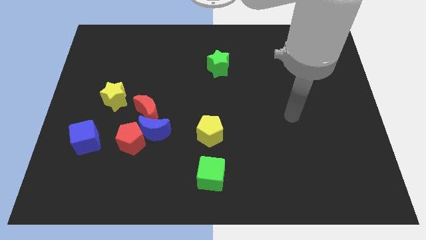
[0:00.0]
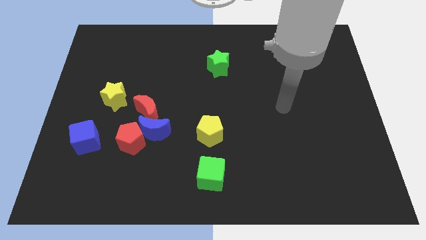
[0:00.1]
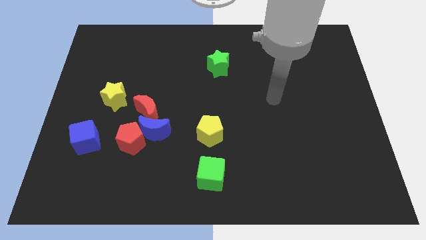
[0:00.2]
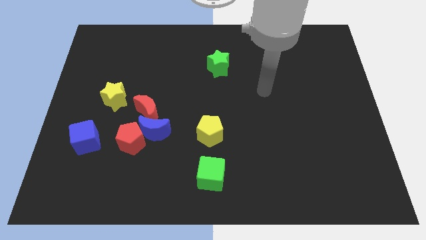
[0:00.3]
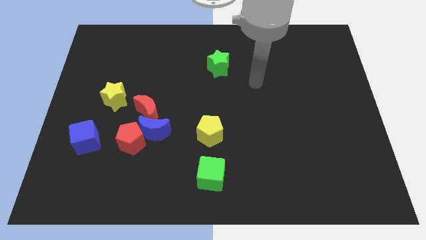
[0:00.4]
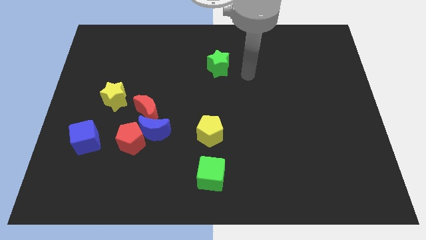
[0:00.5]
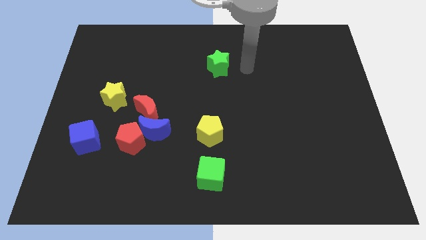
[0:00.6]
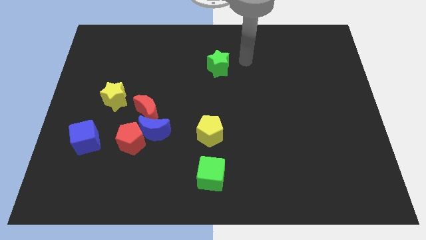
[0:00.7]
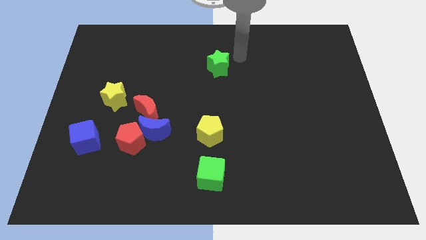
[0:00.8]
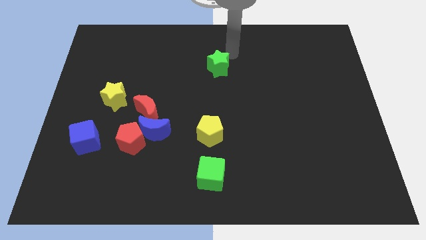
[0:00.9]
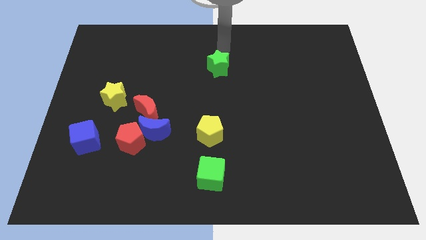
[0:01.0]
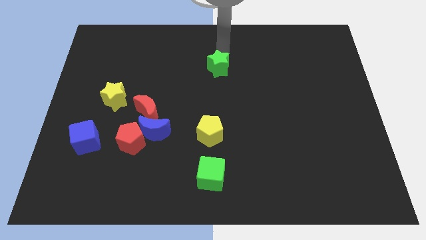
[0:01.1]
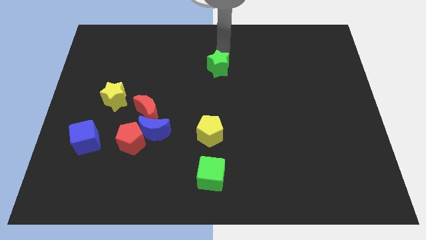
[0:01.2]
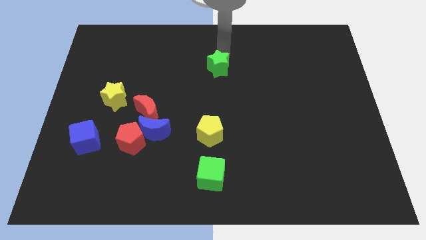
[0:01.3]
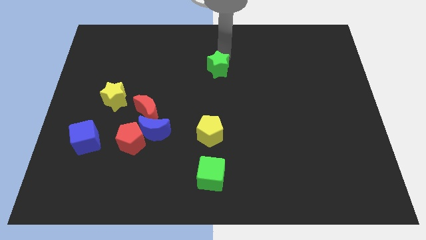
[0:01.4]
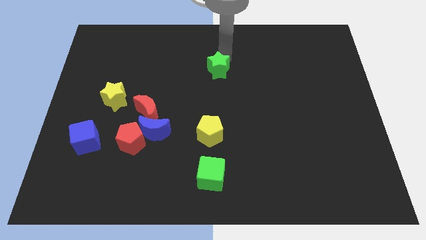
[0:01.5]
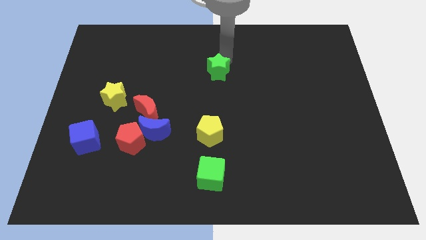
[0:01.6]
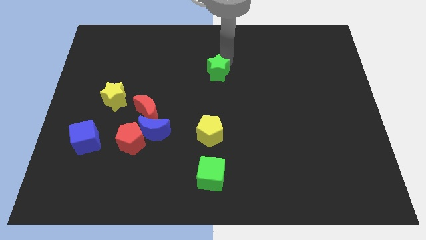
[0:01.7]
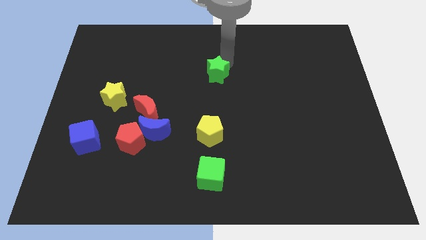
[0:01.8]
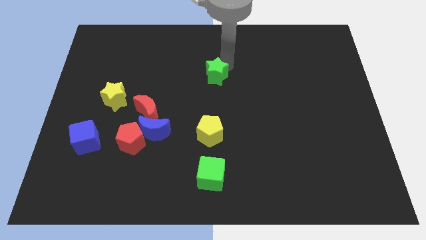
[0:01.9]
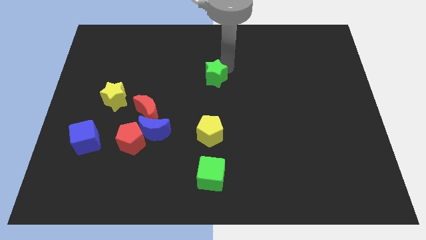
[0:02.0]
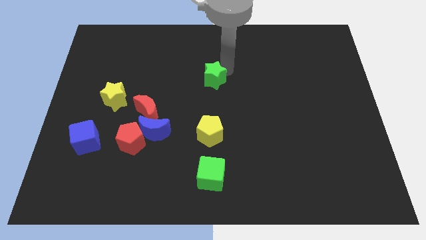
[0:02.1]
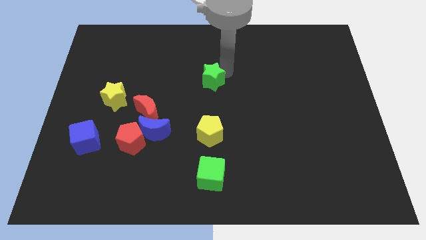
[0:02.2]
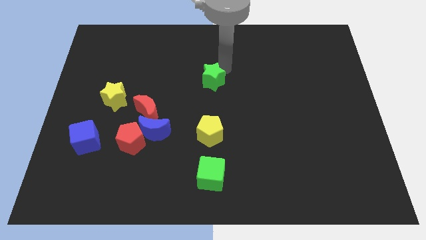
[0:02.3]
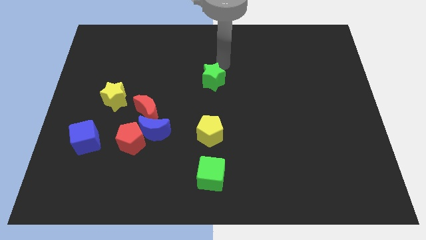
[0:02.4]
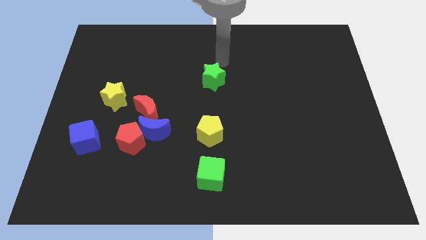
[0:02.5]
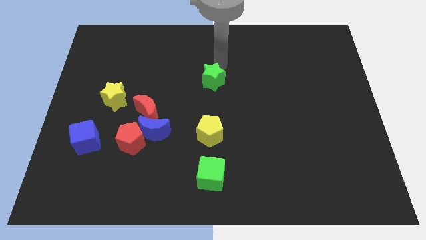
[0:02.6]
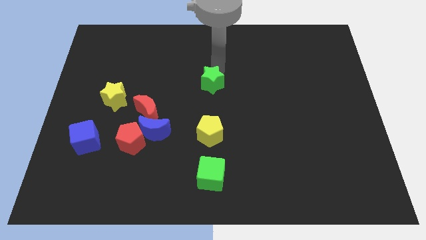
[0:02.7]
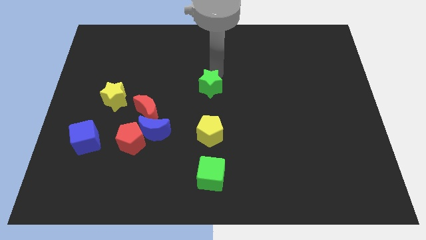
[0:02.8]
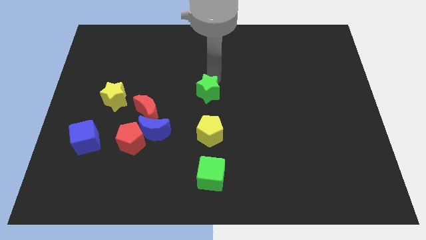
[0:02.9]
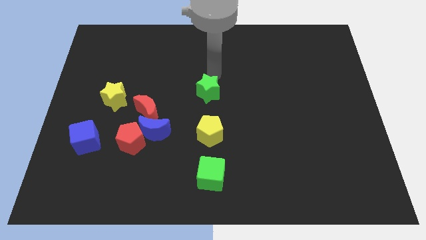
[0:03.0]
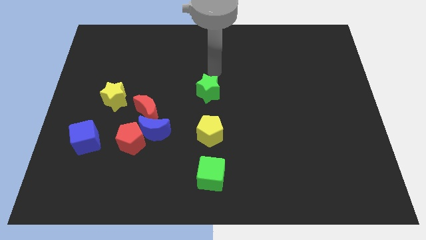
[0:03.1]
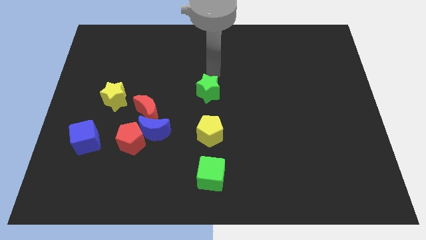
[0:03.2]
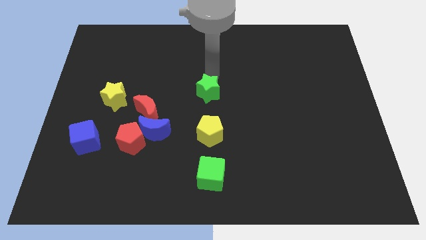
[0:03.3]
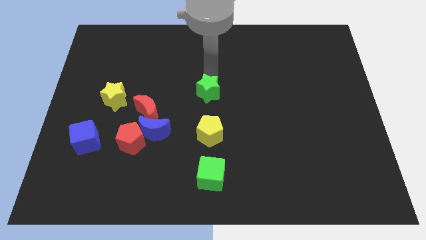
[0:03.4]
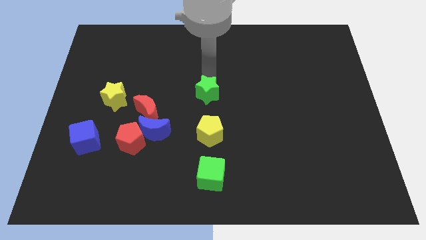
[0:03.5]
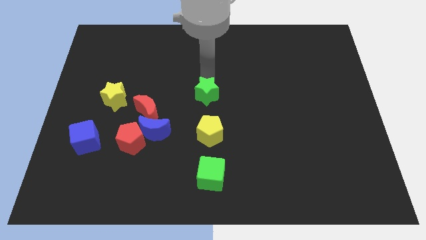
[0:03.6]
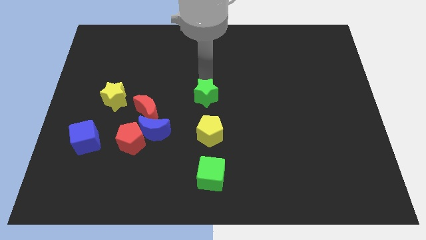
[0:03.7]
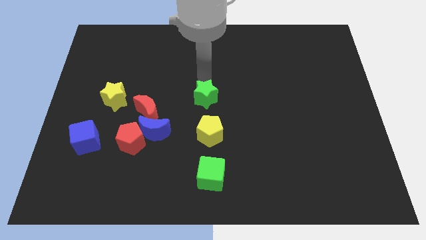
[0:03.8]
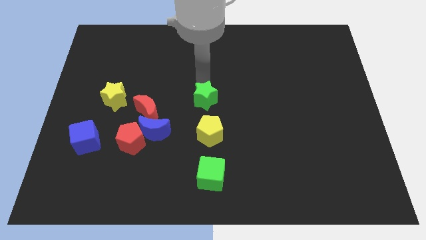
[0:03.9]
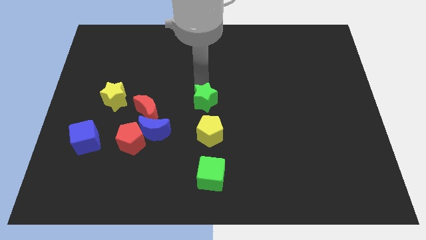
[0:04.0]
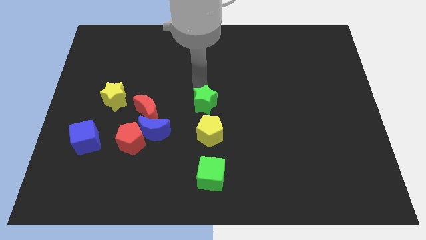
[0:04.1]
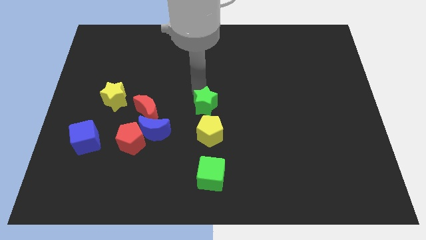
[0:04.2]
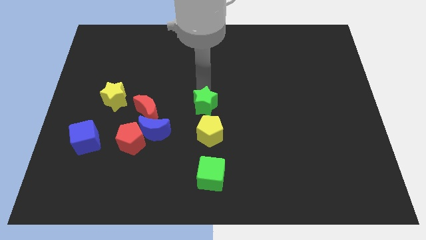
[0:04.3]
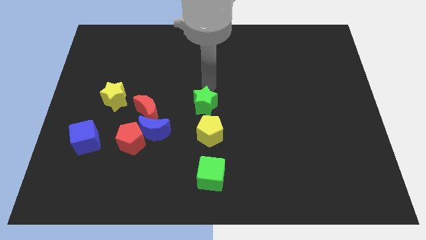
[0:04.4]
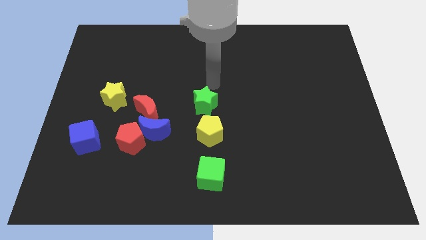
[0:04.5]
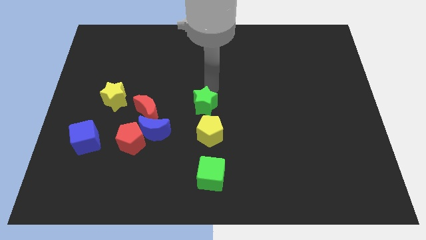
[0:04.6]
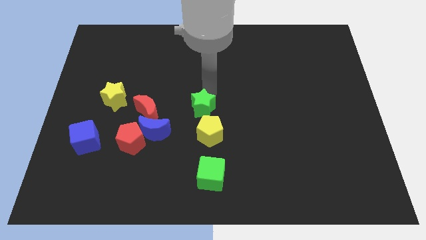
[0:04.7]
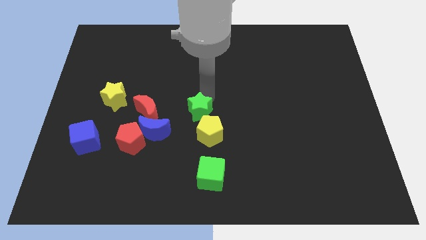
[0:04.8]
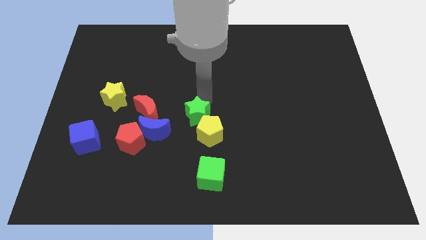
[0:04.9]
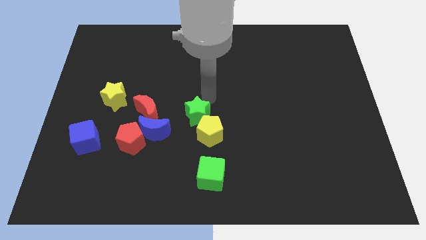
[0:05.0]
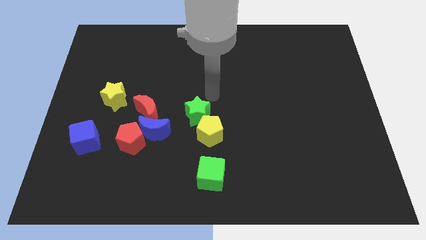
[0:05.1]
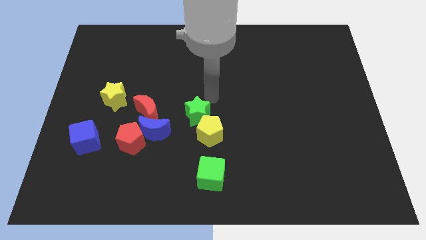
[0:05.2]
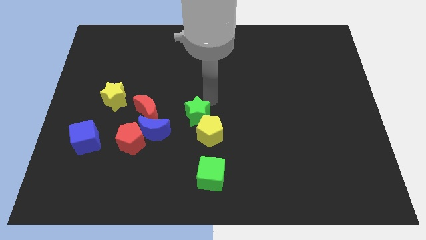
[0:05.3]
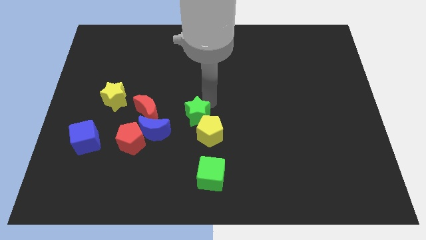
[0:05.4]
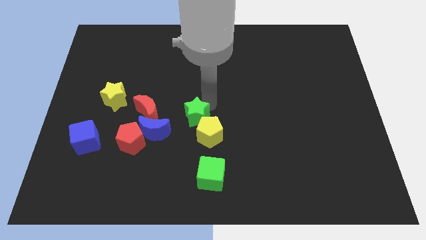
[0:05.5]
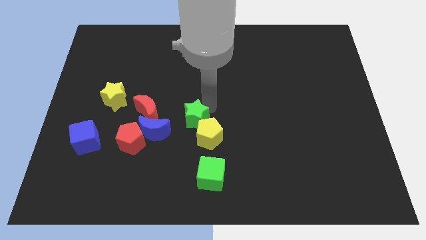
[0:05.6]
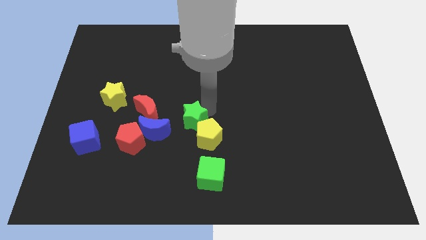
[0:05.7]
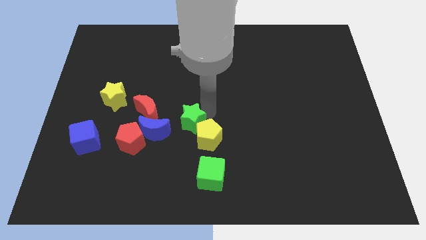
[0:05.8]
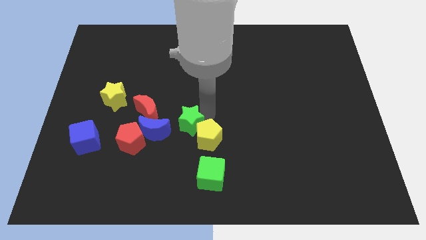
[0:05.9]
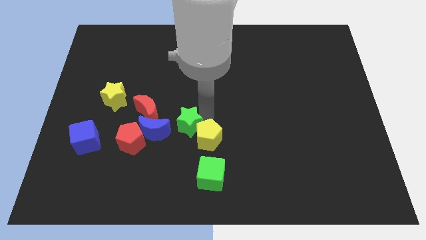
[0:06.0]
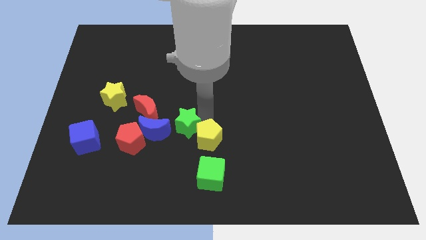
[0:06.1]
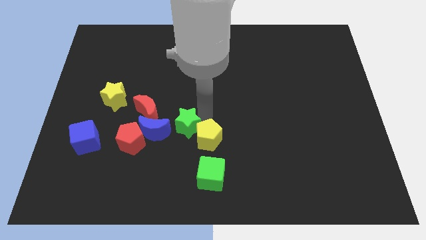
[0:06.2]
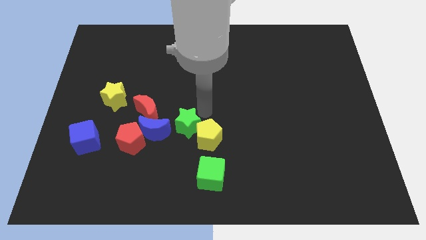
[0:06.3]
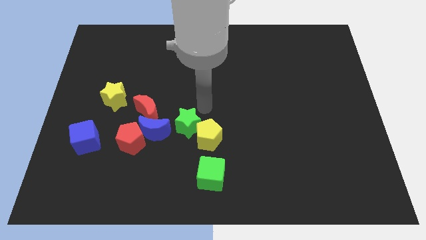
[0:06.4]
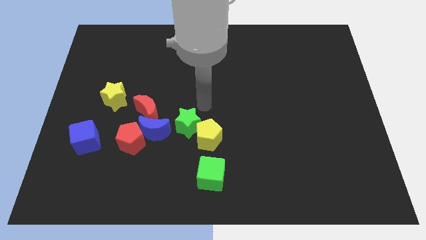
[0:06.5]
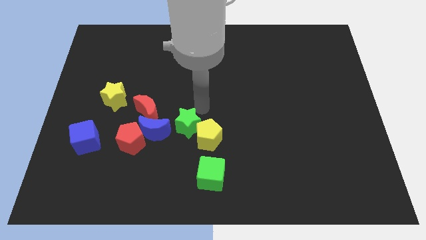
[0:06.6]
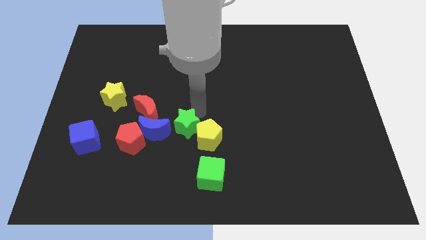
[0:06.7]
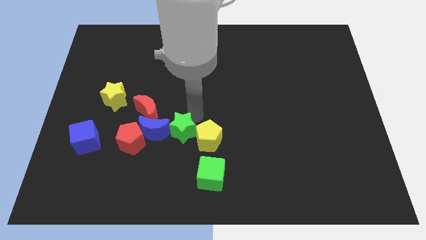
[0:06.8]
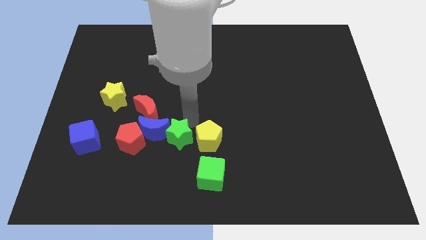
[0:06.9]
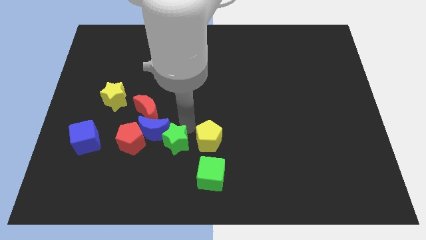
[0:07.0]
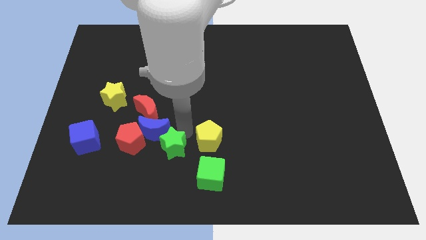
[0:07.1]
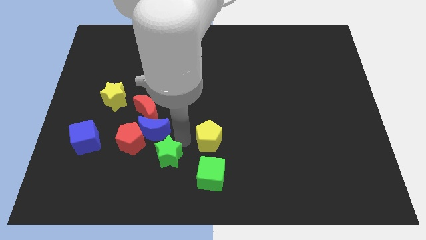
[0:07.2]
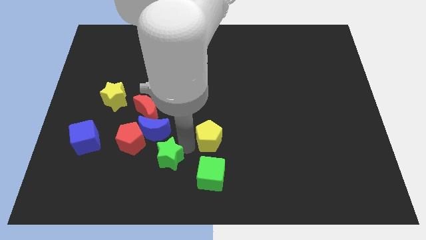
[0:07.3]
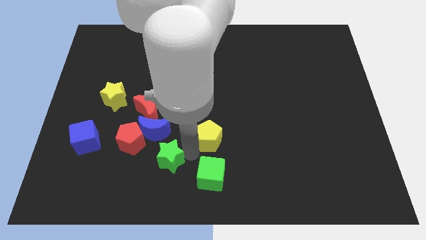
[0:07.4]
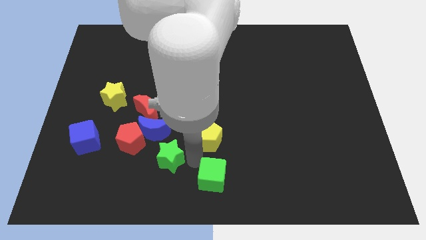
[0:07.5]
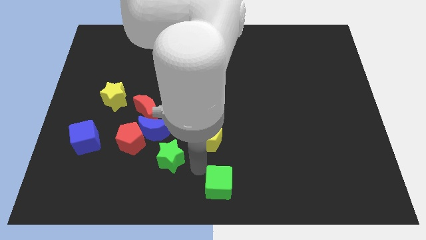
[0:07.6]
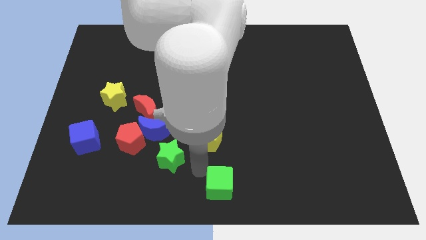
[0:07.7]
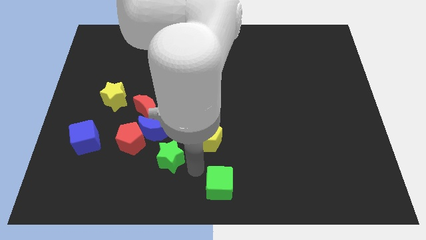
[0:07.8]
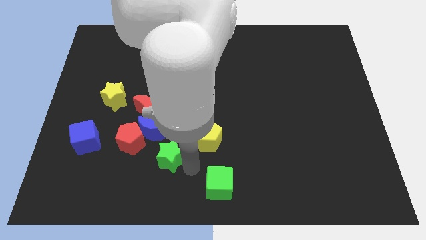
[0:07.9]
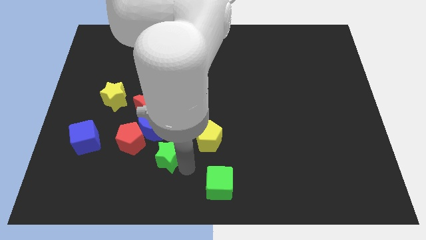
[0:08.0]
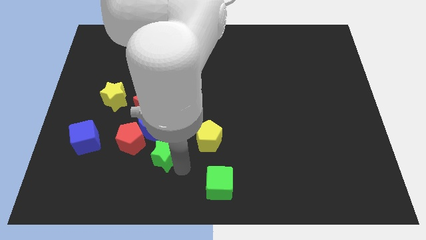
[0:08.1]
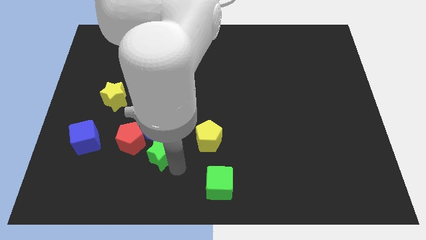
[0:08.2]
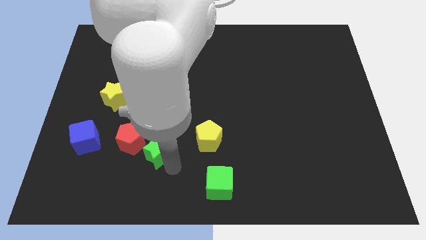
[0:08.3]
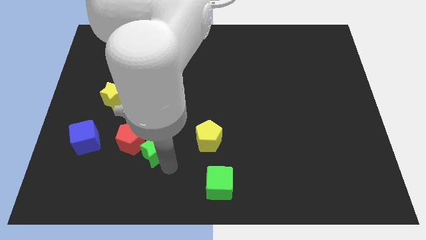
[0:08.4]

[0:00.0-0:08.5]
put the green star close to the red pentagon
